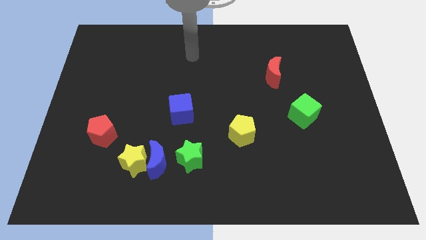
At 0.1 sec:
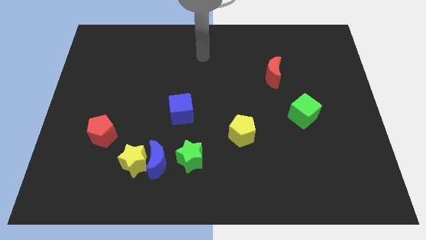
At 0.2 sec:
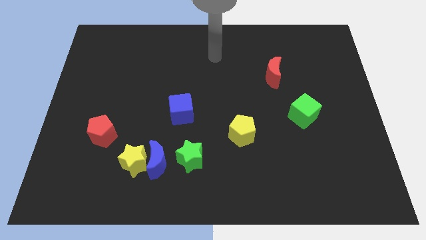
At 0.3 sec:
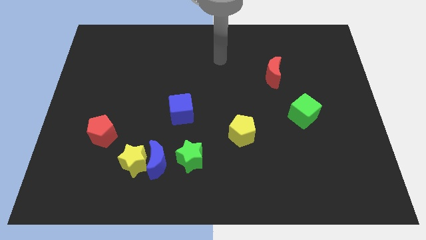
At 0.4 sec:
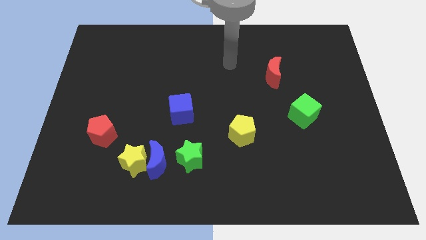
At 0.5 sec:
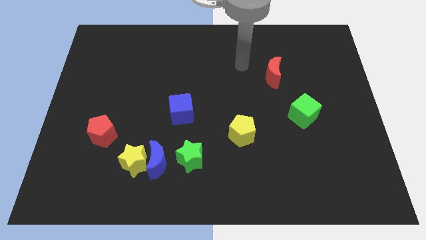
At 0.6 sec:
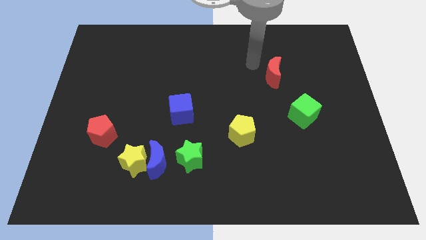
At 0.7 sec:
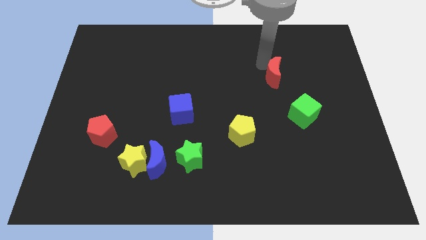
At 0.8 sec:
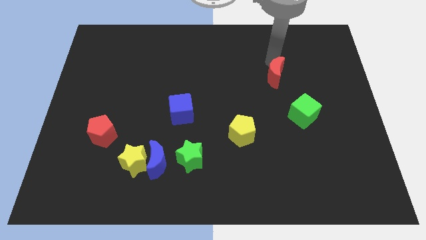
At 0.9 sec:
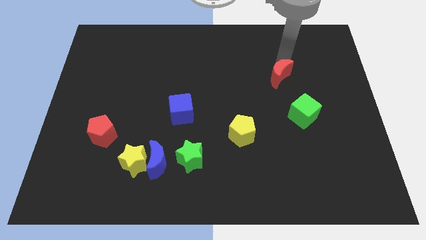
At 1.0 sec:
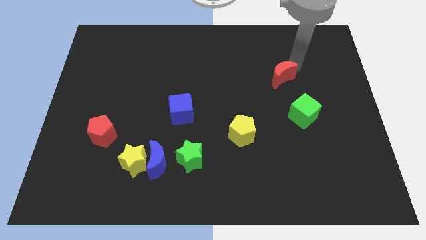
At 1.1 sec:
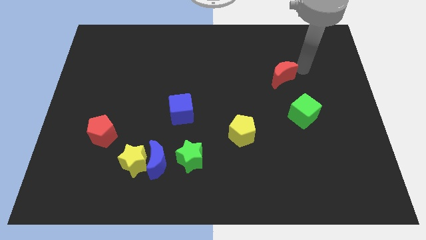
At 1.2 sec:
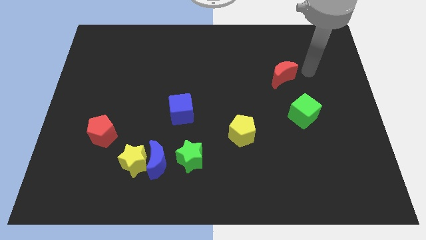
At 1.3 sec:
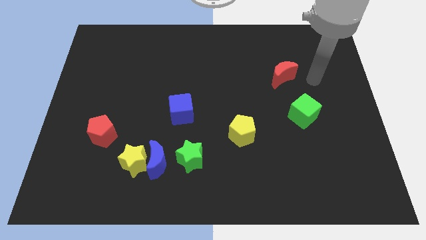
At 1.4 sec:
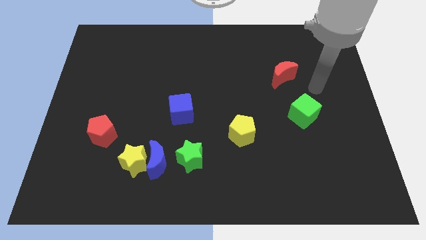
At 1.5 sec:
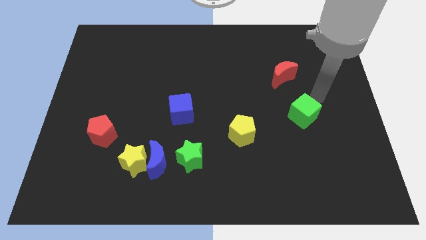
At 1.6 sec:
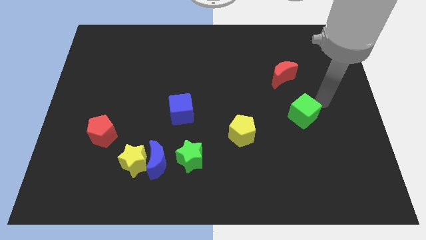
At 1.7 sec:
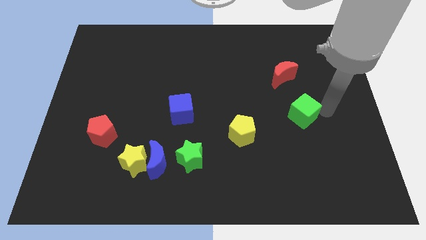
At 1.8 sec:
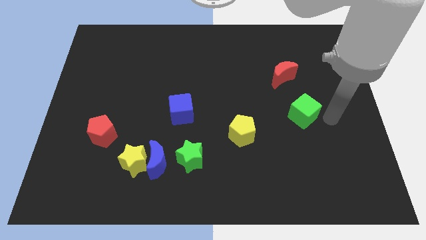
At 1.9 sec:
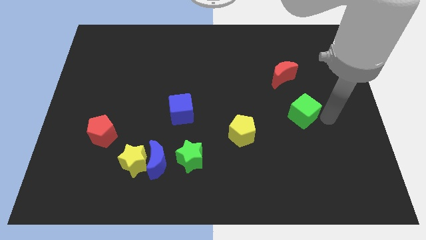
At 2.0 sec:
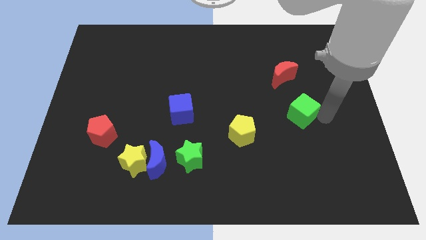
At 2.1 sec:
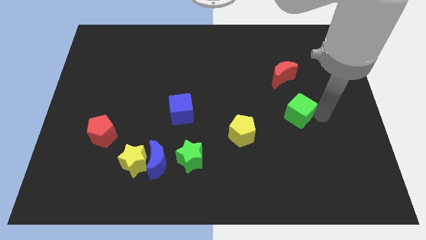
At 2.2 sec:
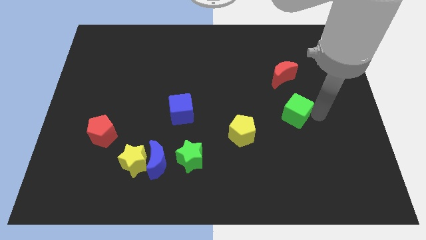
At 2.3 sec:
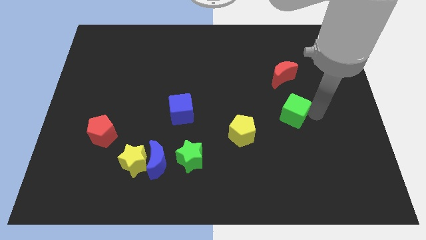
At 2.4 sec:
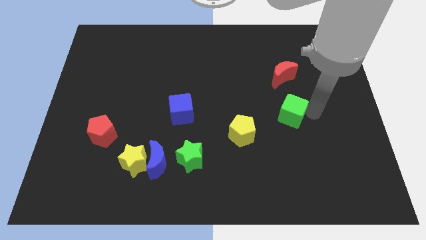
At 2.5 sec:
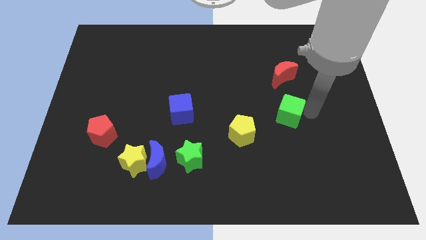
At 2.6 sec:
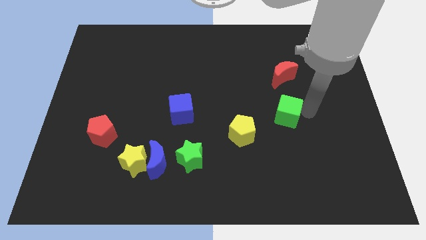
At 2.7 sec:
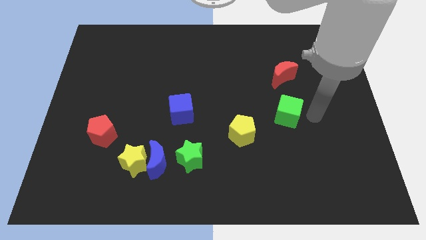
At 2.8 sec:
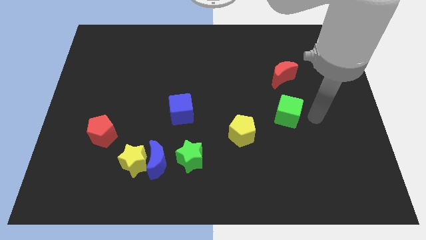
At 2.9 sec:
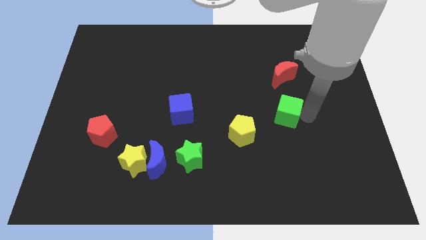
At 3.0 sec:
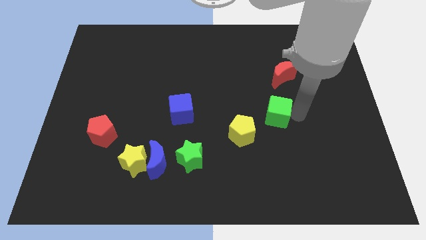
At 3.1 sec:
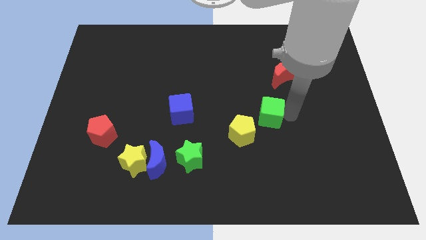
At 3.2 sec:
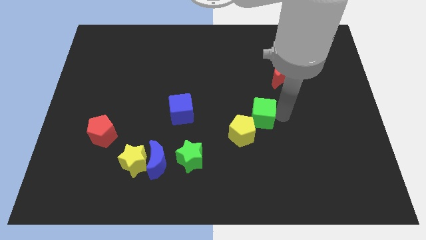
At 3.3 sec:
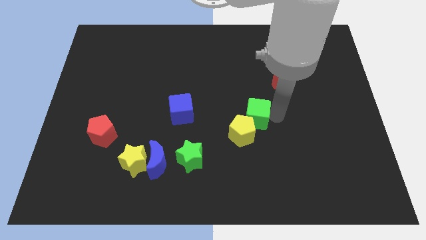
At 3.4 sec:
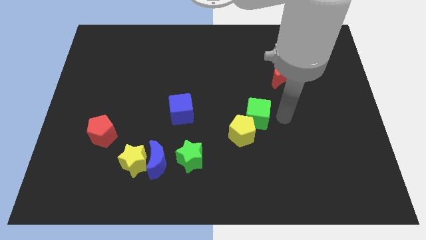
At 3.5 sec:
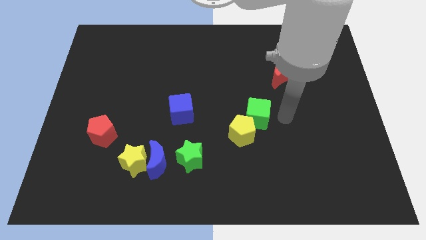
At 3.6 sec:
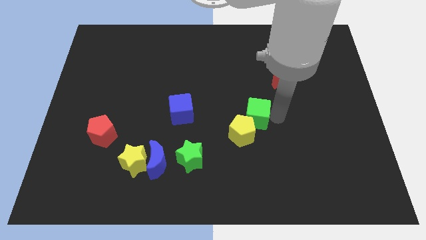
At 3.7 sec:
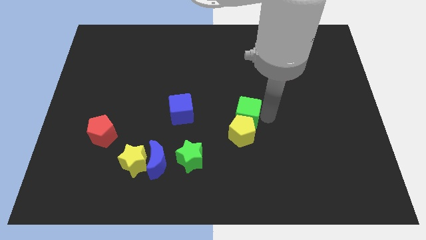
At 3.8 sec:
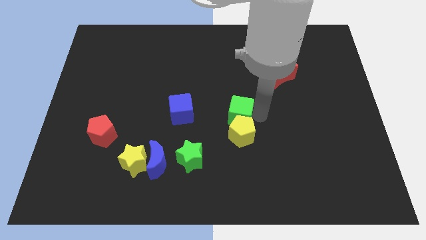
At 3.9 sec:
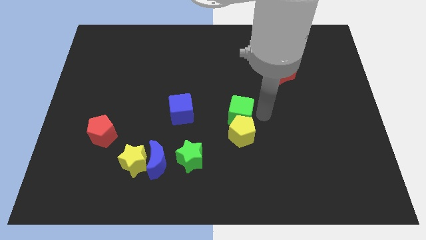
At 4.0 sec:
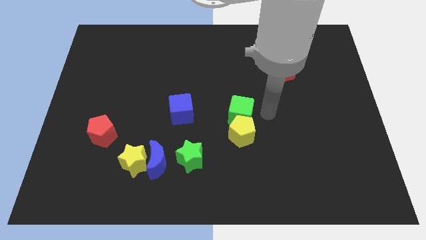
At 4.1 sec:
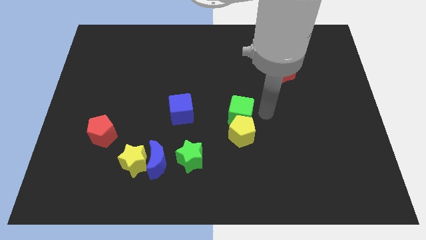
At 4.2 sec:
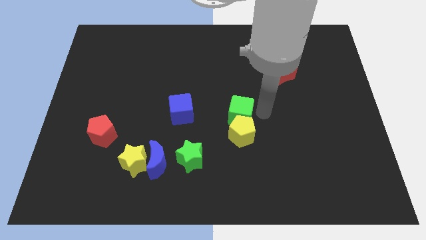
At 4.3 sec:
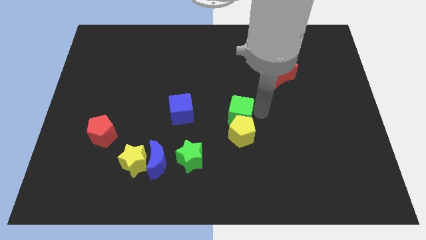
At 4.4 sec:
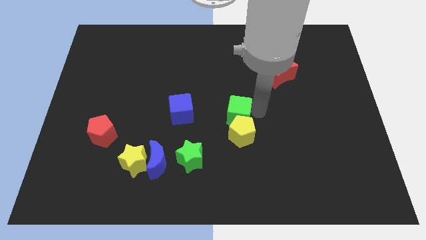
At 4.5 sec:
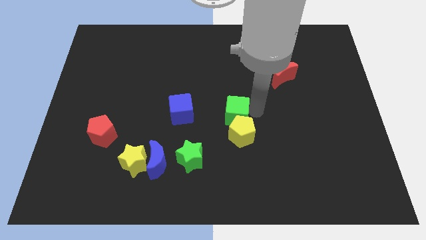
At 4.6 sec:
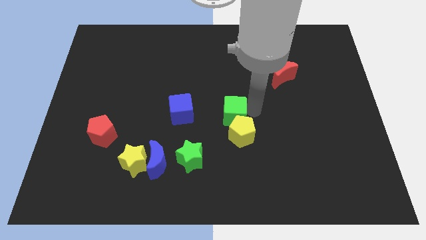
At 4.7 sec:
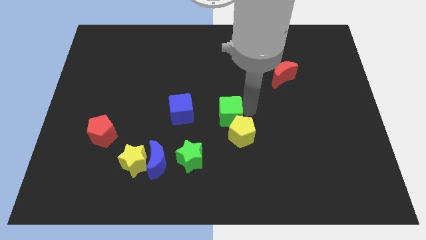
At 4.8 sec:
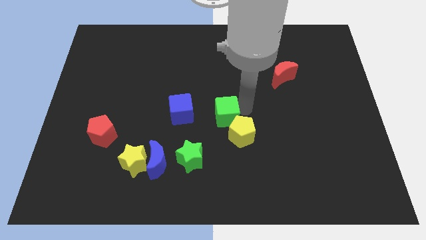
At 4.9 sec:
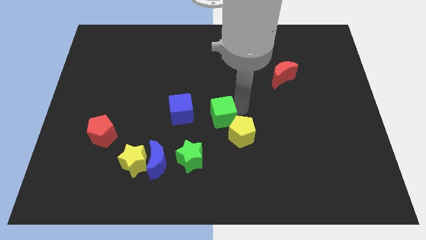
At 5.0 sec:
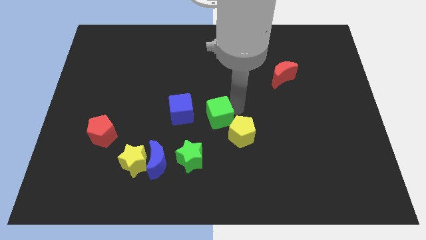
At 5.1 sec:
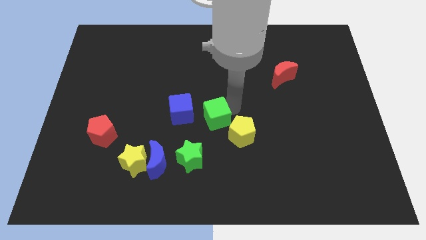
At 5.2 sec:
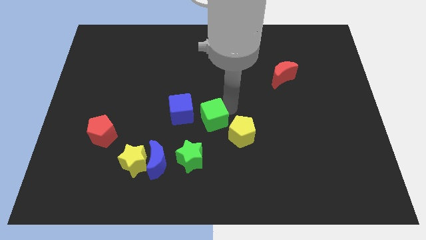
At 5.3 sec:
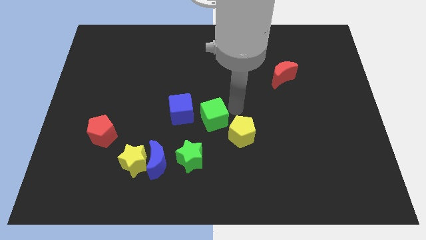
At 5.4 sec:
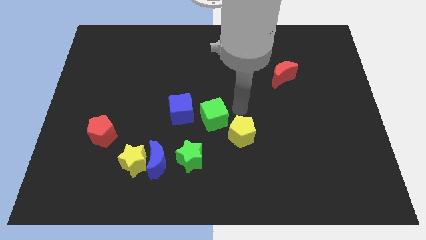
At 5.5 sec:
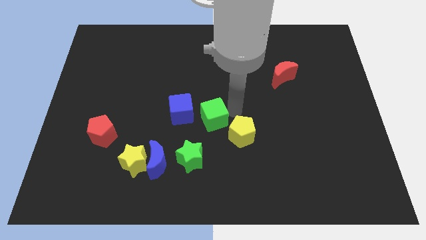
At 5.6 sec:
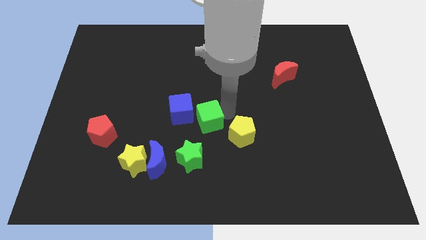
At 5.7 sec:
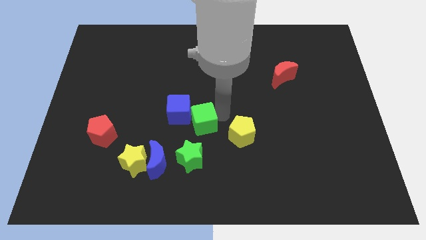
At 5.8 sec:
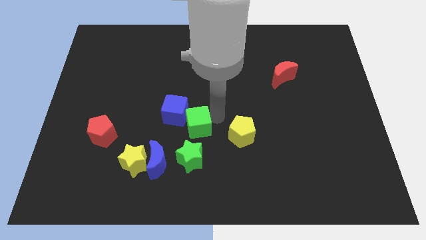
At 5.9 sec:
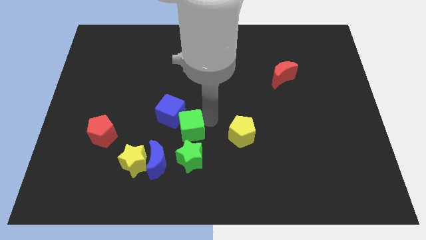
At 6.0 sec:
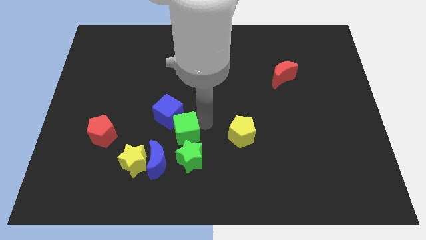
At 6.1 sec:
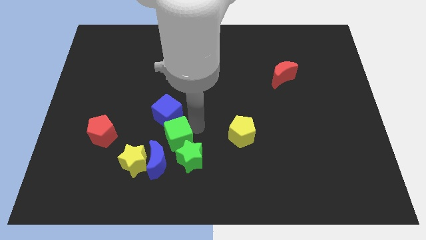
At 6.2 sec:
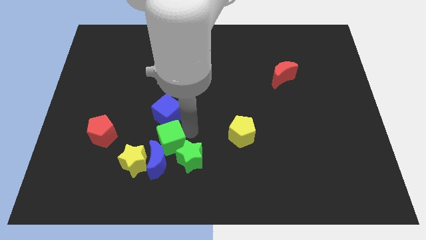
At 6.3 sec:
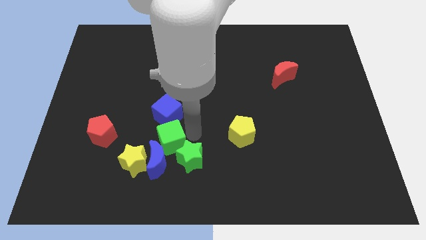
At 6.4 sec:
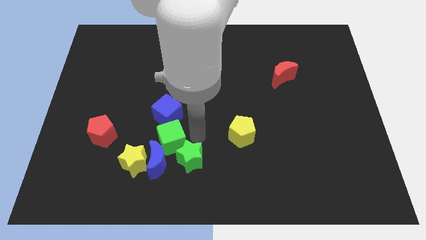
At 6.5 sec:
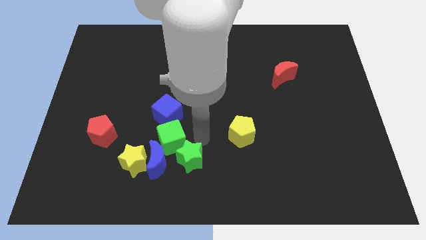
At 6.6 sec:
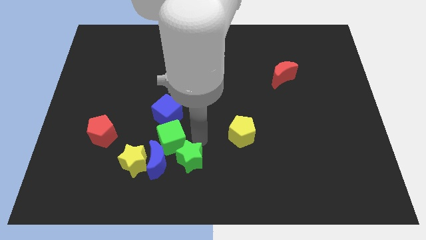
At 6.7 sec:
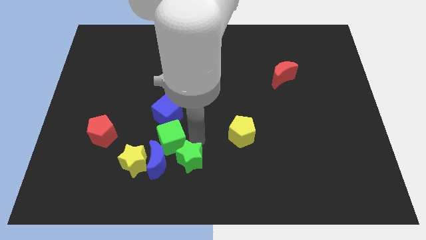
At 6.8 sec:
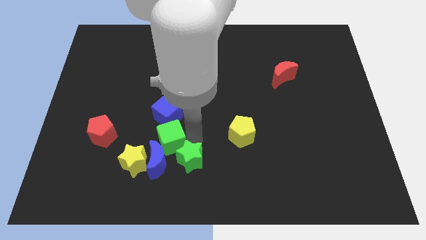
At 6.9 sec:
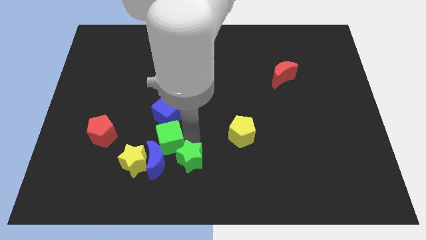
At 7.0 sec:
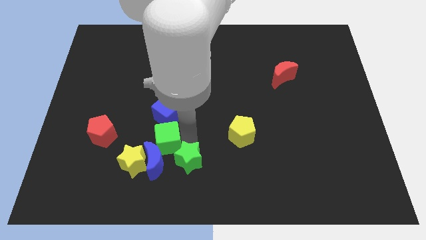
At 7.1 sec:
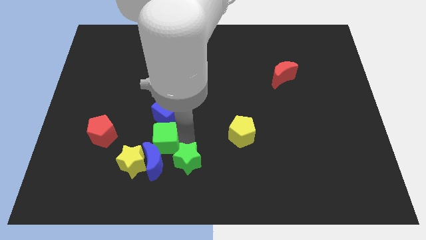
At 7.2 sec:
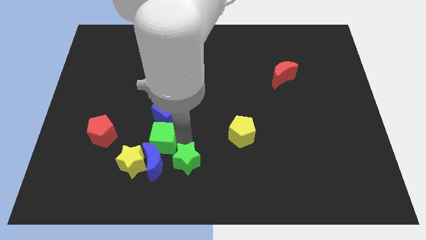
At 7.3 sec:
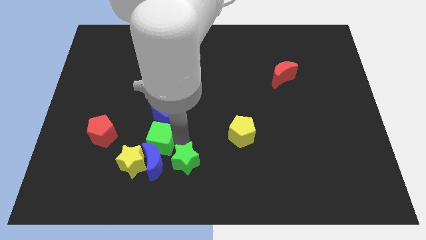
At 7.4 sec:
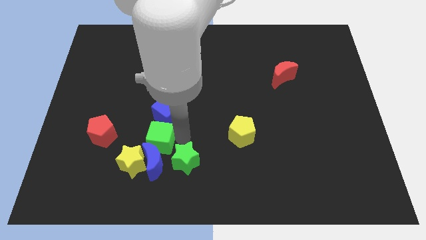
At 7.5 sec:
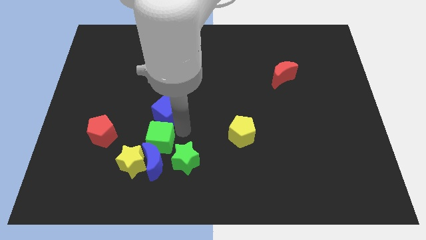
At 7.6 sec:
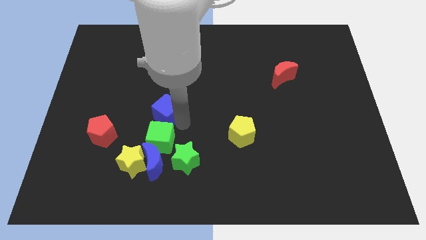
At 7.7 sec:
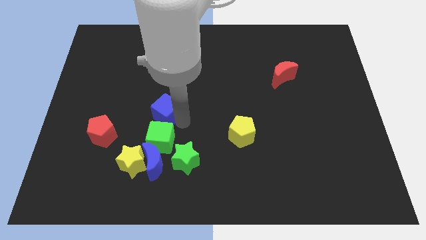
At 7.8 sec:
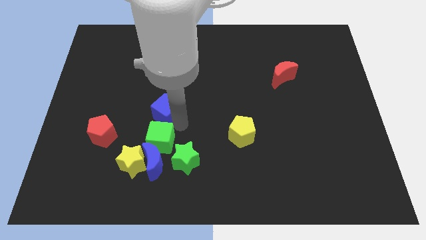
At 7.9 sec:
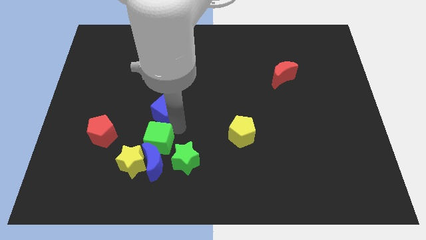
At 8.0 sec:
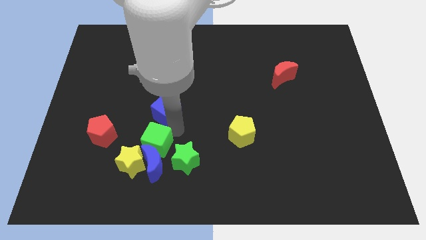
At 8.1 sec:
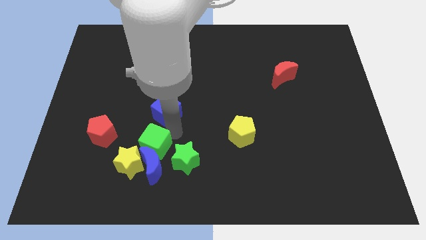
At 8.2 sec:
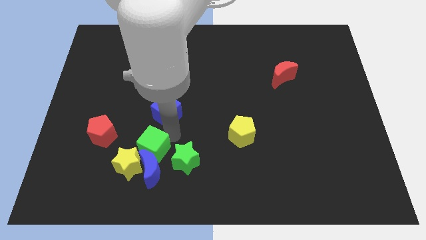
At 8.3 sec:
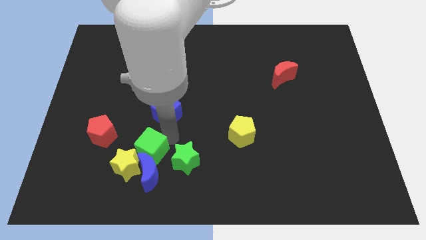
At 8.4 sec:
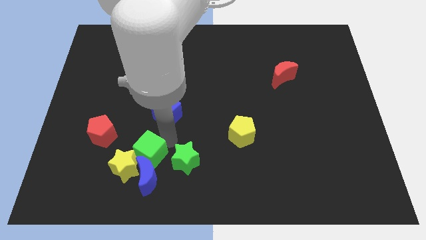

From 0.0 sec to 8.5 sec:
move the green cube next to the yellow star
